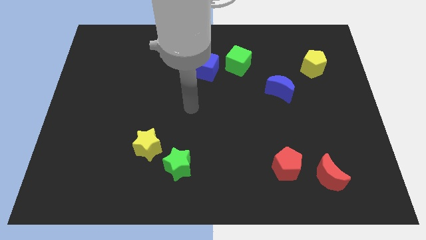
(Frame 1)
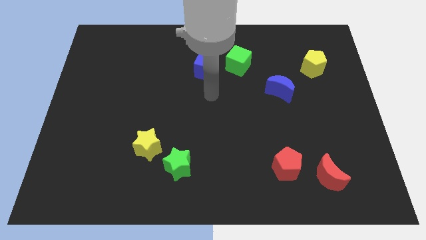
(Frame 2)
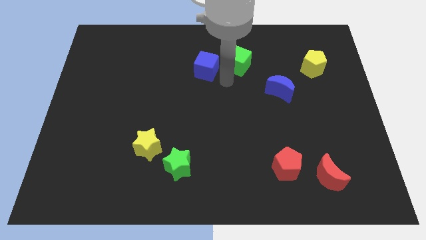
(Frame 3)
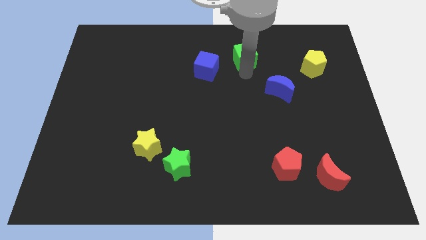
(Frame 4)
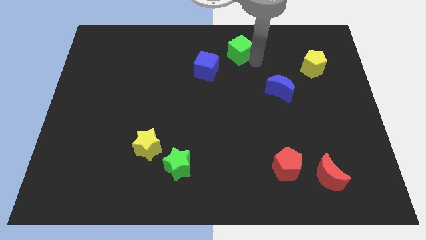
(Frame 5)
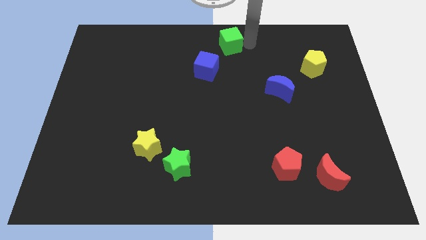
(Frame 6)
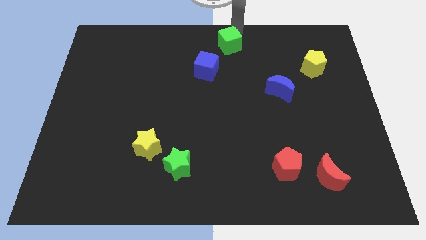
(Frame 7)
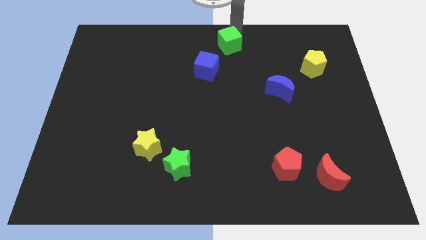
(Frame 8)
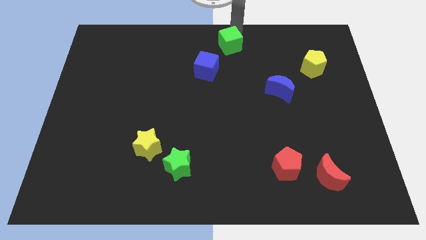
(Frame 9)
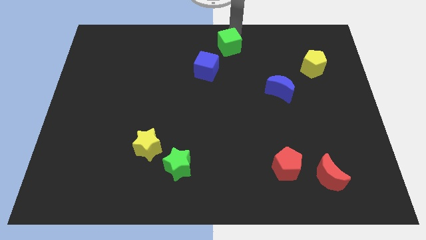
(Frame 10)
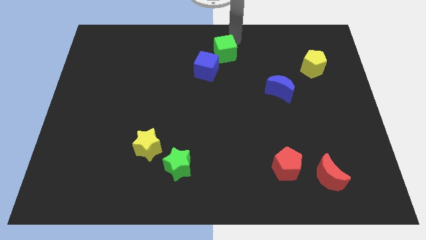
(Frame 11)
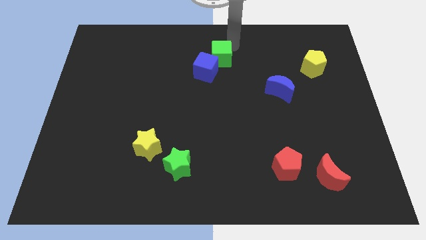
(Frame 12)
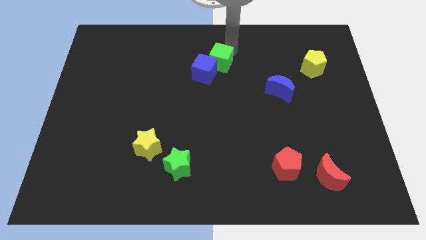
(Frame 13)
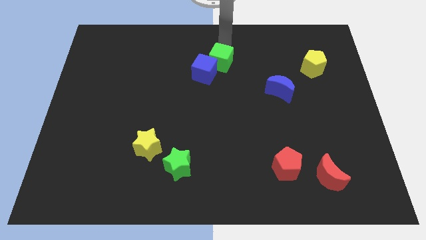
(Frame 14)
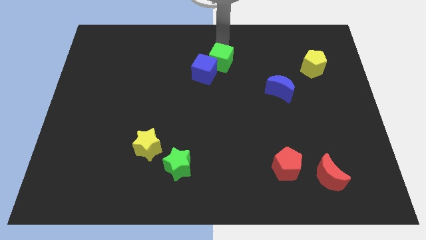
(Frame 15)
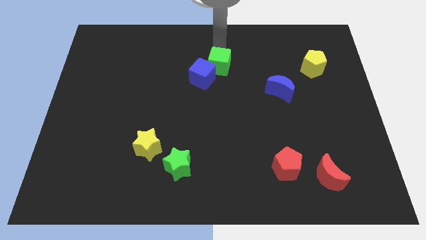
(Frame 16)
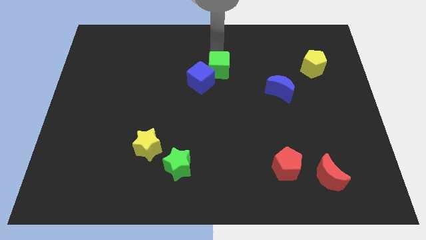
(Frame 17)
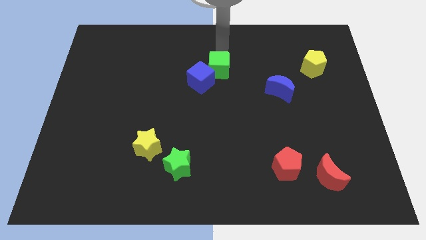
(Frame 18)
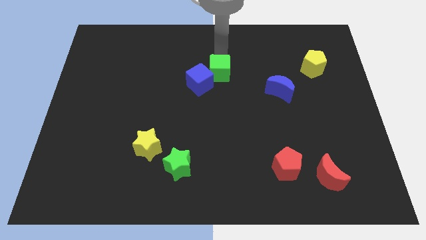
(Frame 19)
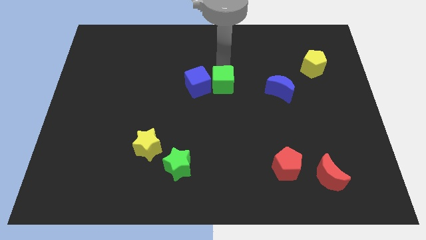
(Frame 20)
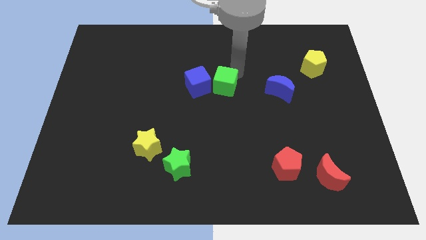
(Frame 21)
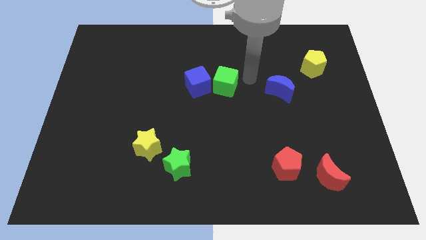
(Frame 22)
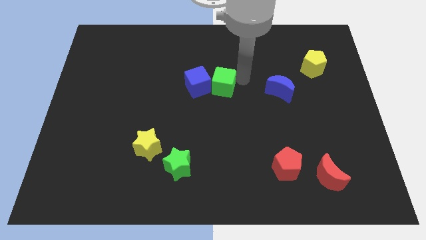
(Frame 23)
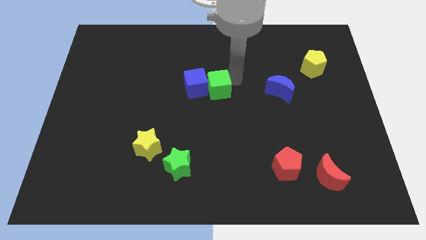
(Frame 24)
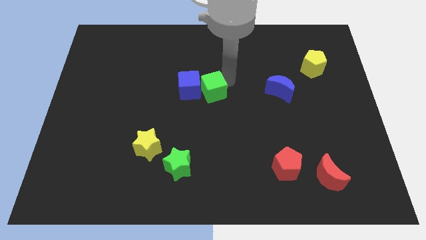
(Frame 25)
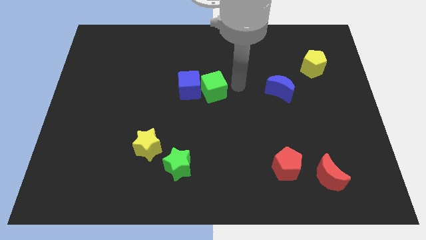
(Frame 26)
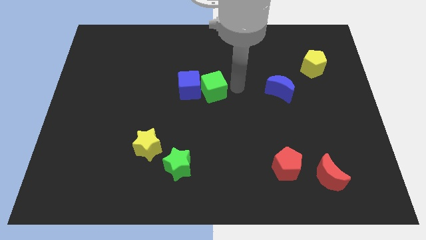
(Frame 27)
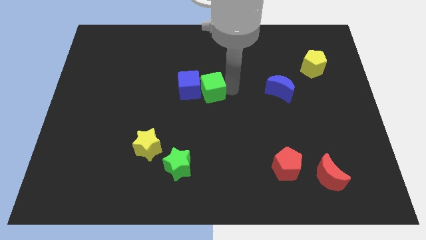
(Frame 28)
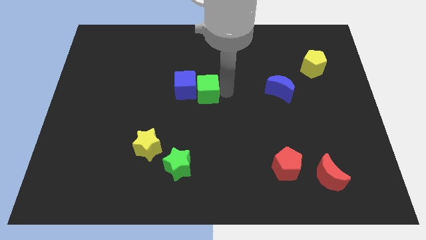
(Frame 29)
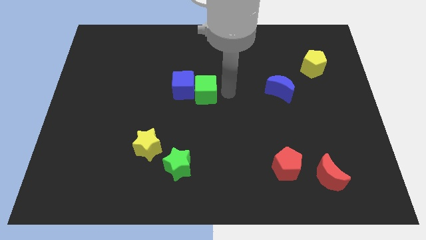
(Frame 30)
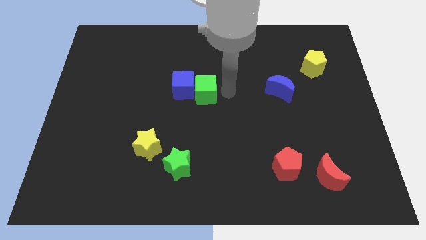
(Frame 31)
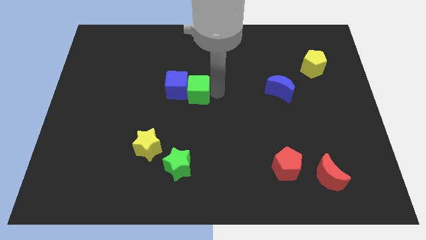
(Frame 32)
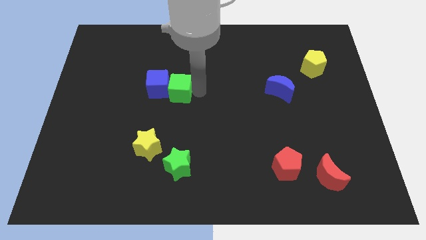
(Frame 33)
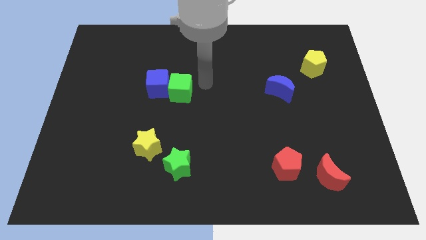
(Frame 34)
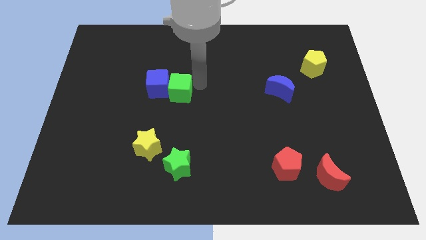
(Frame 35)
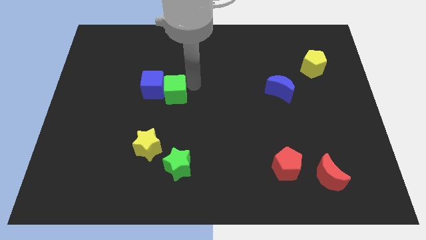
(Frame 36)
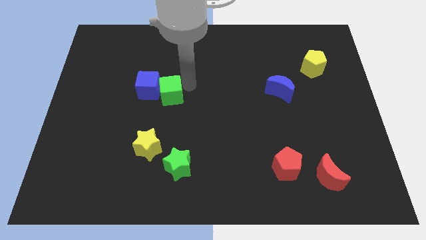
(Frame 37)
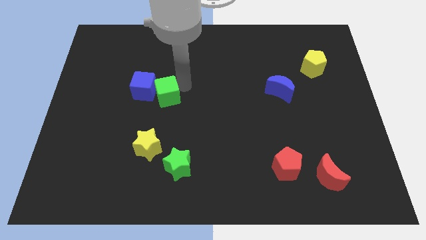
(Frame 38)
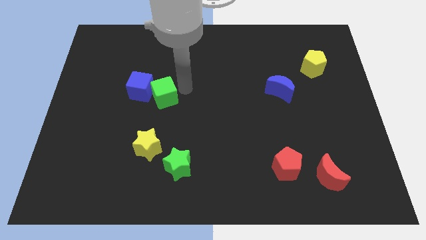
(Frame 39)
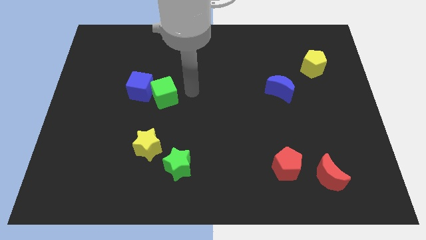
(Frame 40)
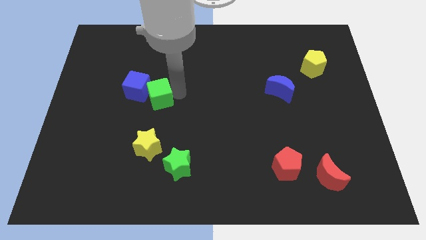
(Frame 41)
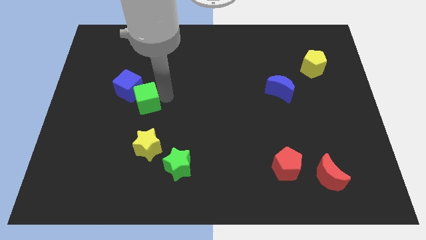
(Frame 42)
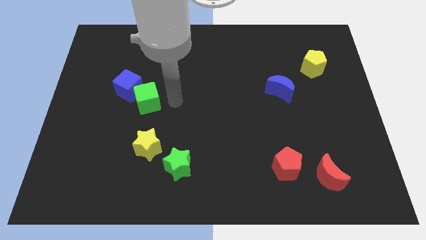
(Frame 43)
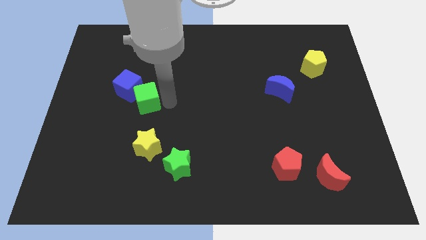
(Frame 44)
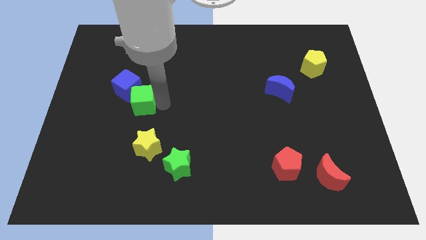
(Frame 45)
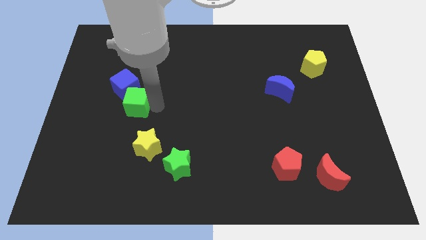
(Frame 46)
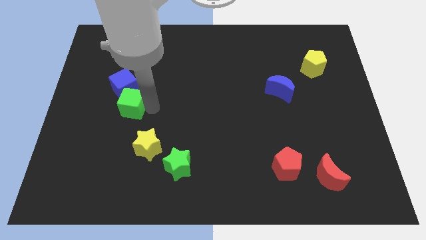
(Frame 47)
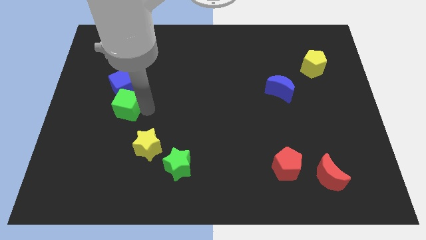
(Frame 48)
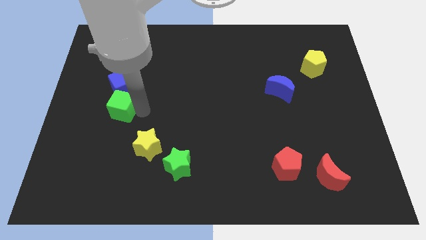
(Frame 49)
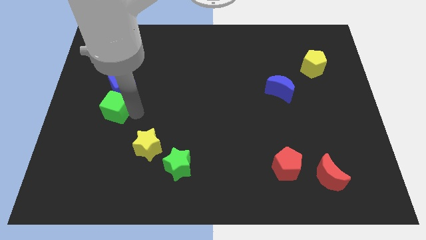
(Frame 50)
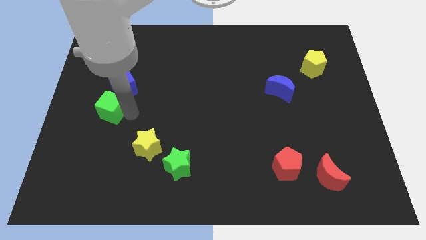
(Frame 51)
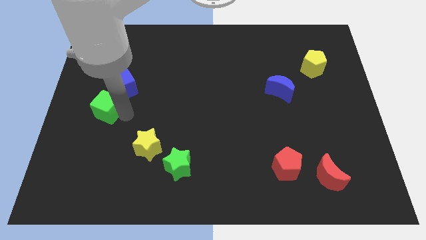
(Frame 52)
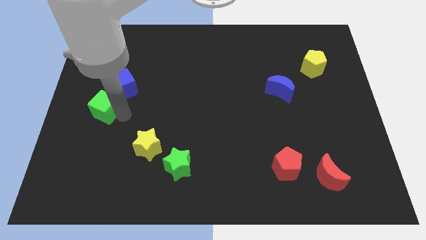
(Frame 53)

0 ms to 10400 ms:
slide the green cube to the center left

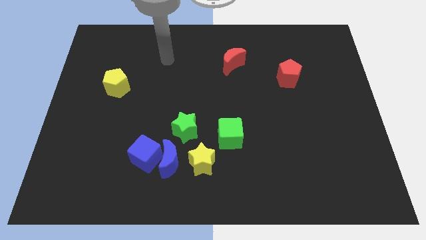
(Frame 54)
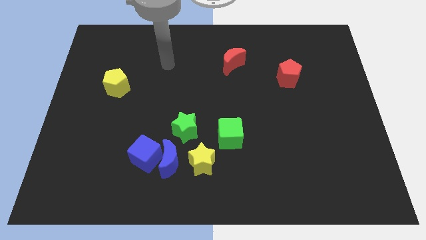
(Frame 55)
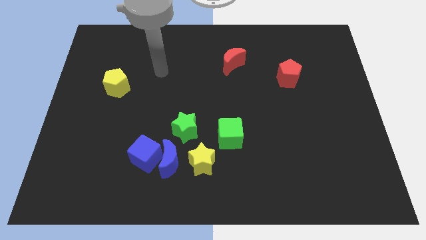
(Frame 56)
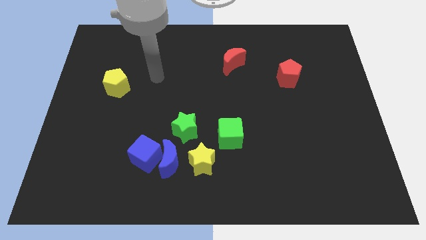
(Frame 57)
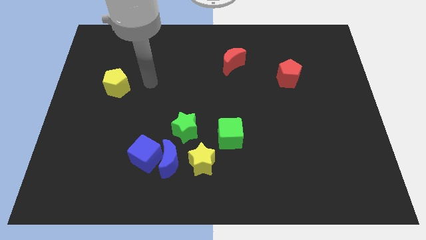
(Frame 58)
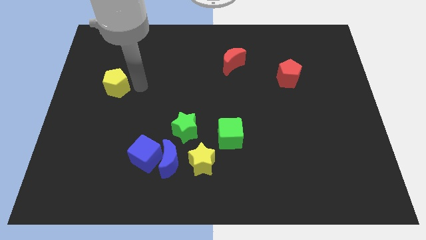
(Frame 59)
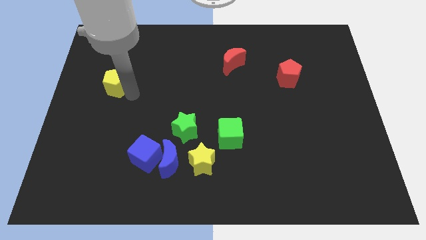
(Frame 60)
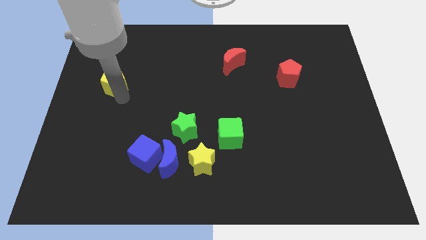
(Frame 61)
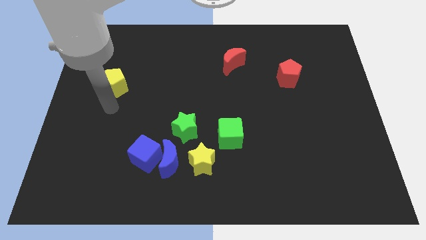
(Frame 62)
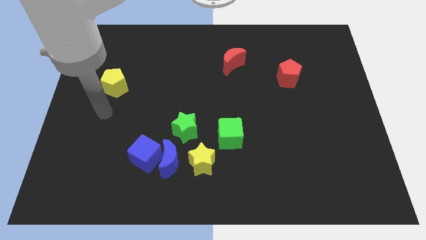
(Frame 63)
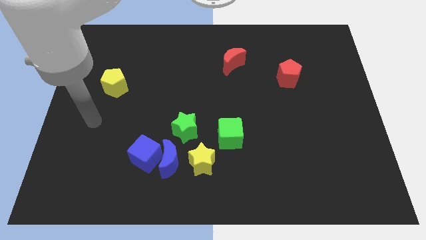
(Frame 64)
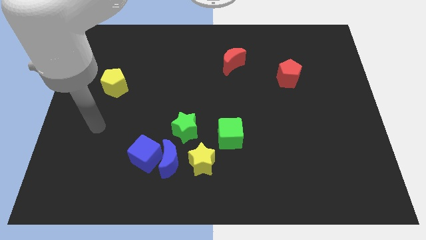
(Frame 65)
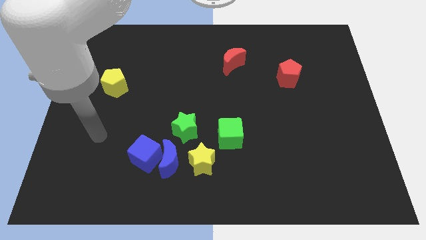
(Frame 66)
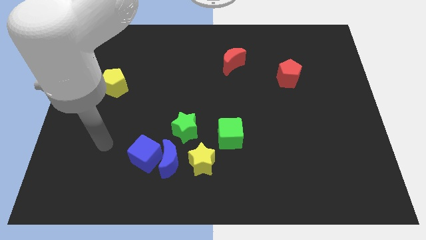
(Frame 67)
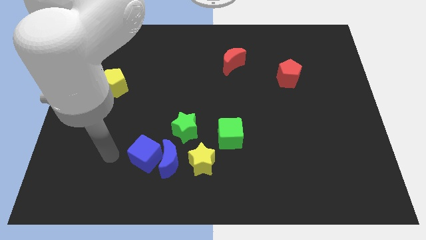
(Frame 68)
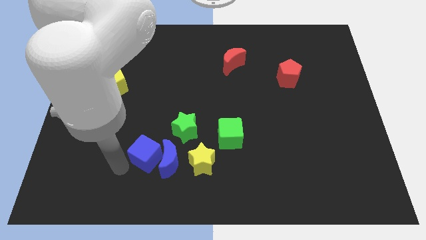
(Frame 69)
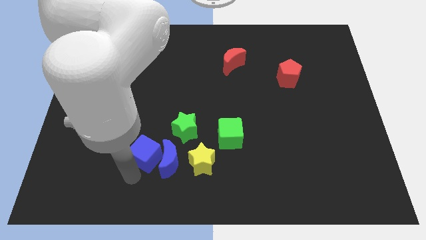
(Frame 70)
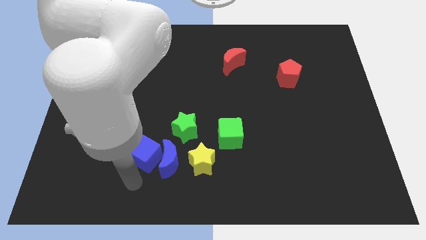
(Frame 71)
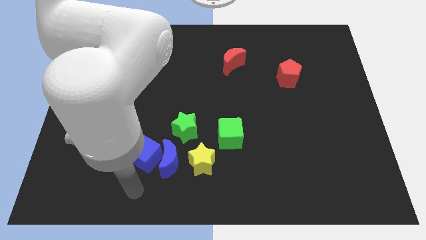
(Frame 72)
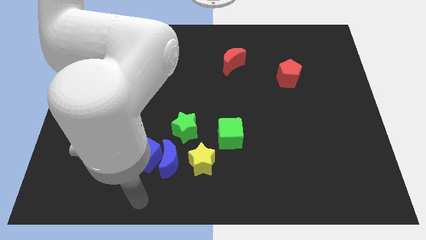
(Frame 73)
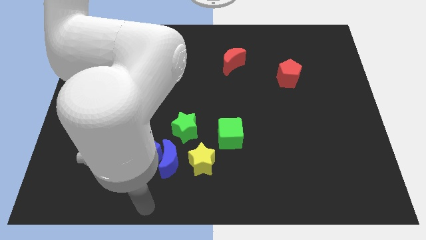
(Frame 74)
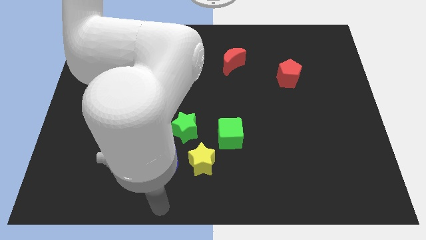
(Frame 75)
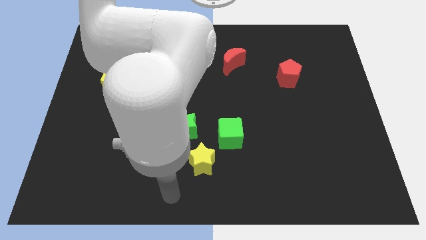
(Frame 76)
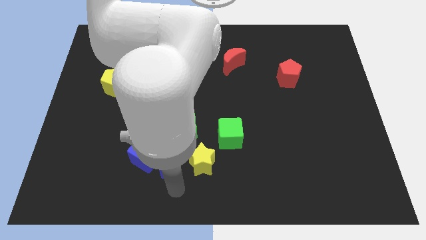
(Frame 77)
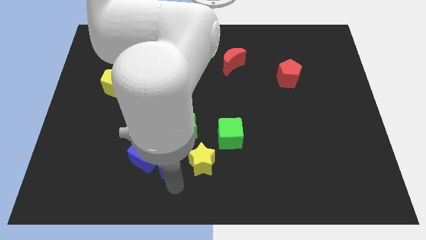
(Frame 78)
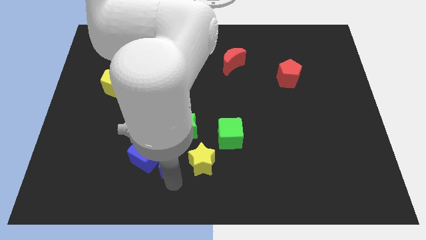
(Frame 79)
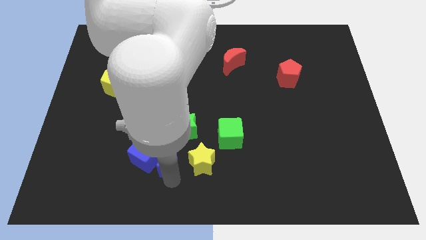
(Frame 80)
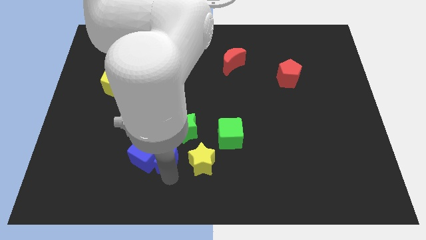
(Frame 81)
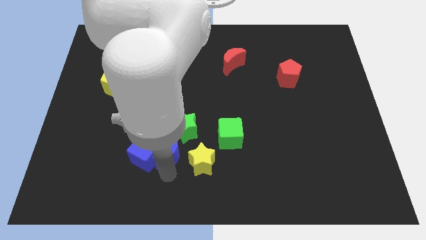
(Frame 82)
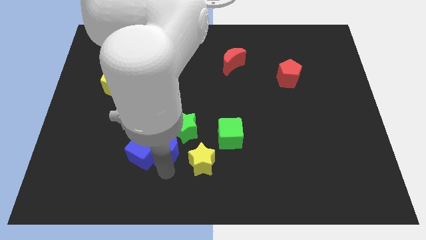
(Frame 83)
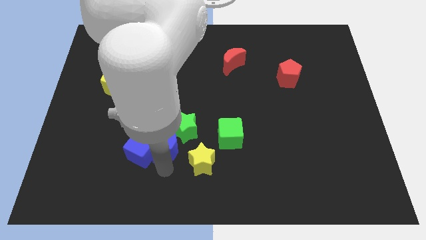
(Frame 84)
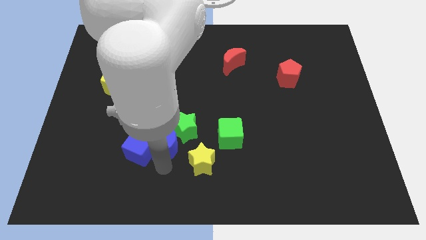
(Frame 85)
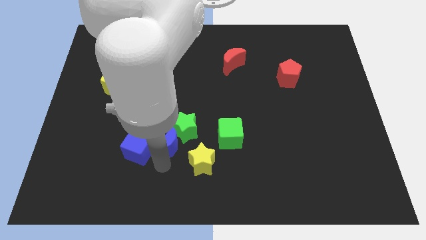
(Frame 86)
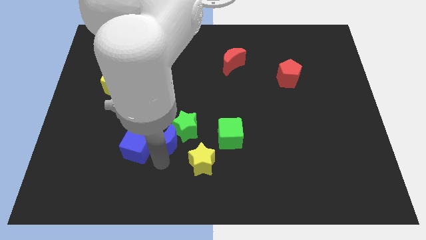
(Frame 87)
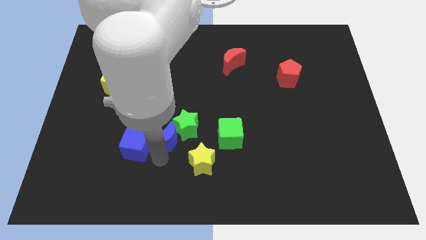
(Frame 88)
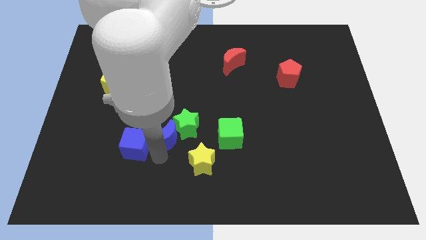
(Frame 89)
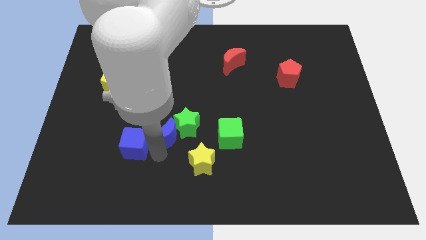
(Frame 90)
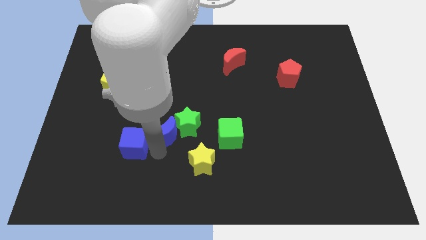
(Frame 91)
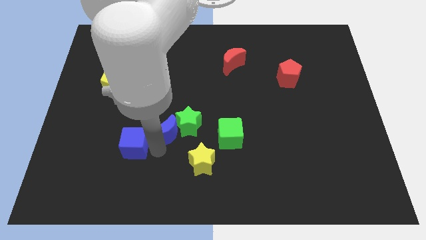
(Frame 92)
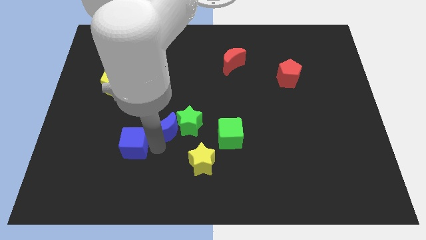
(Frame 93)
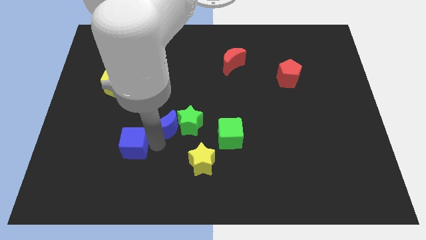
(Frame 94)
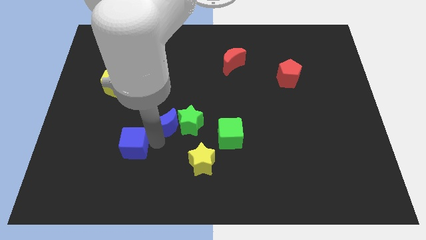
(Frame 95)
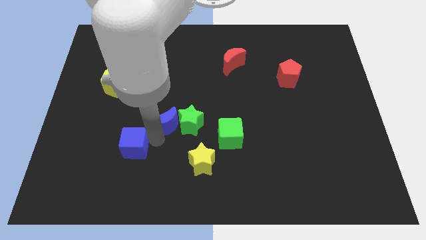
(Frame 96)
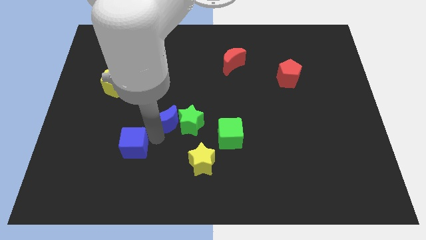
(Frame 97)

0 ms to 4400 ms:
move the blue moon to the middle of the board
